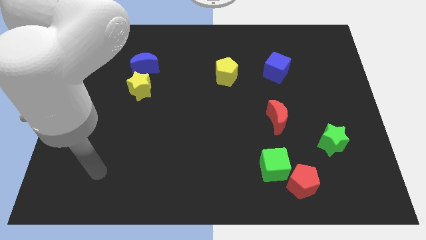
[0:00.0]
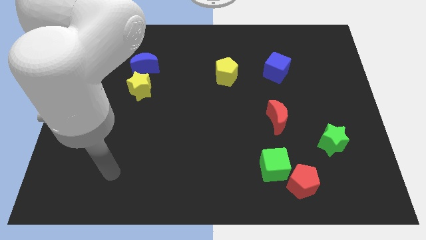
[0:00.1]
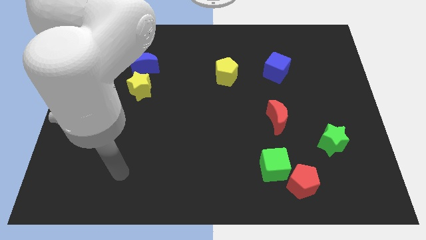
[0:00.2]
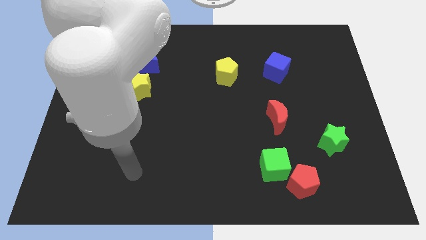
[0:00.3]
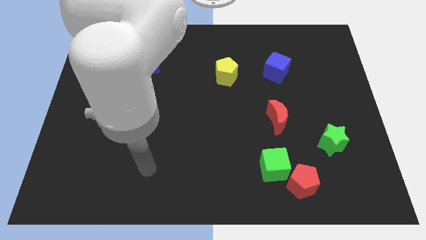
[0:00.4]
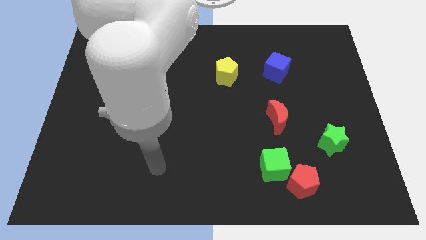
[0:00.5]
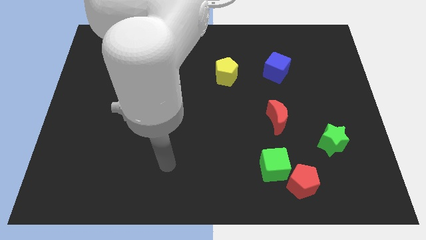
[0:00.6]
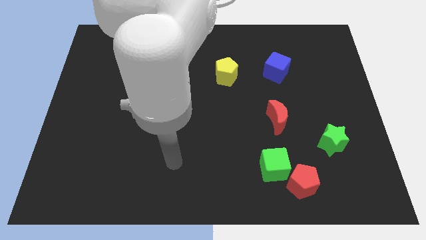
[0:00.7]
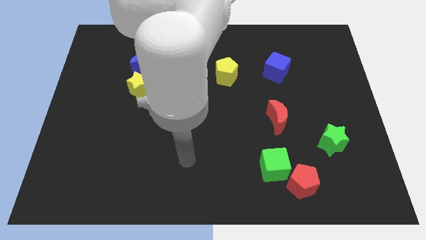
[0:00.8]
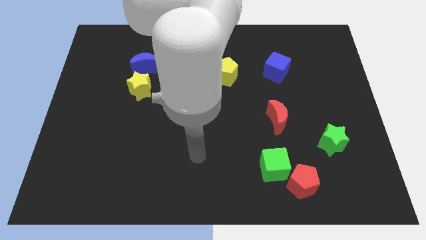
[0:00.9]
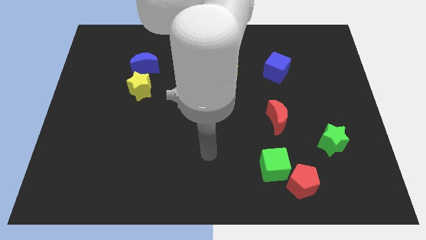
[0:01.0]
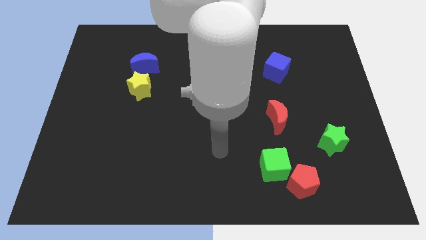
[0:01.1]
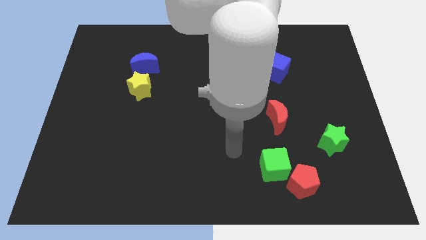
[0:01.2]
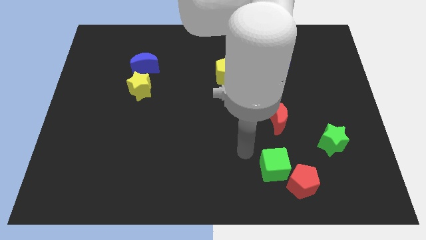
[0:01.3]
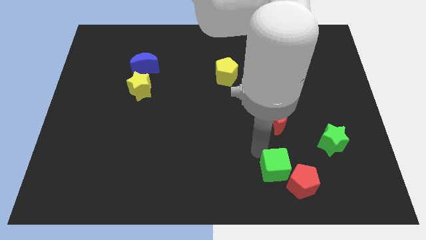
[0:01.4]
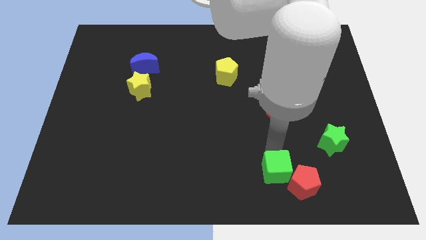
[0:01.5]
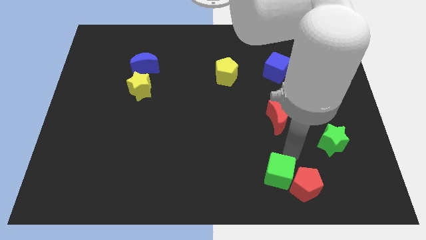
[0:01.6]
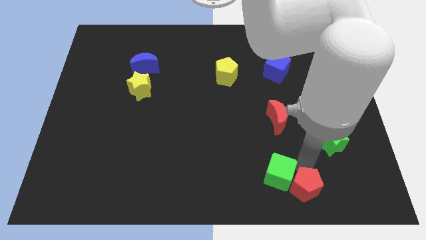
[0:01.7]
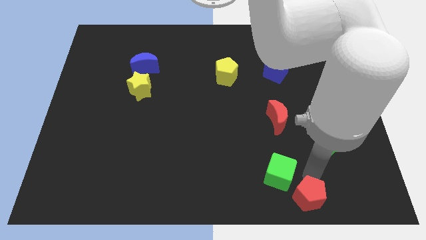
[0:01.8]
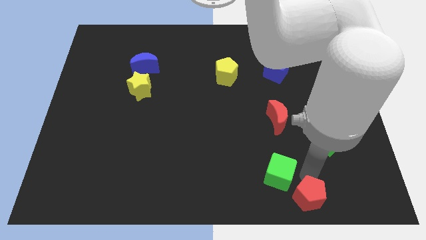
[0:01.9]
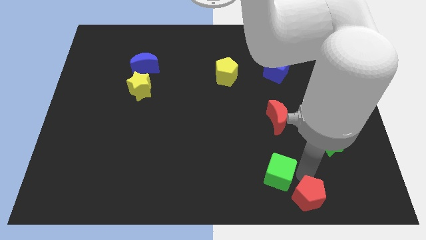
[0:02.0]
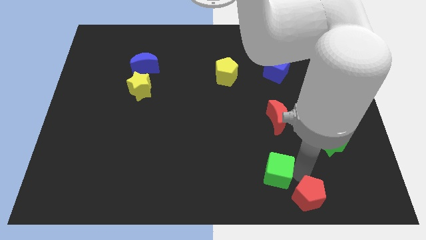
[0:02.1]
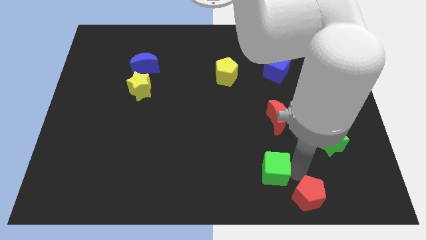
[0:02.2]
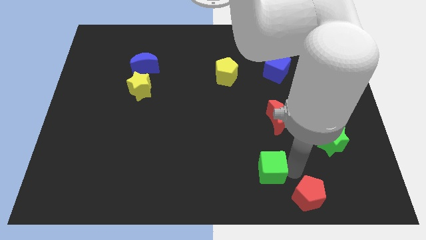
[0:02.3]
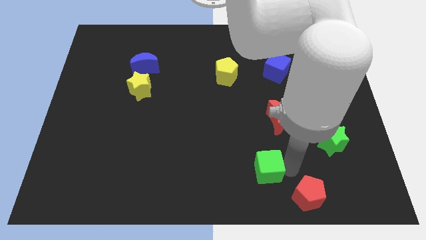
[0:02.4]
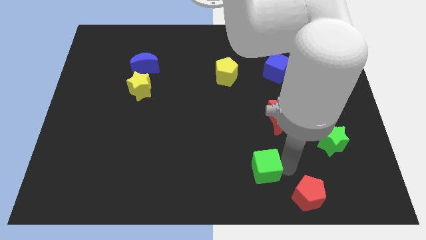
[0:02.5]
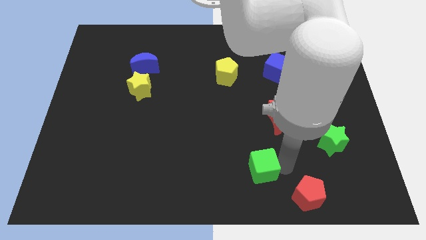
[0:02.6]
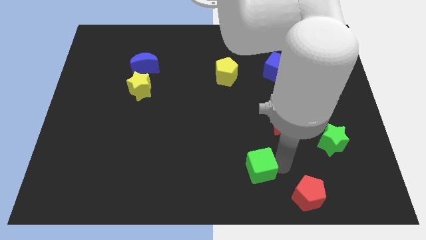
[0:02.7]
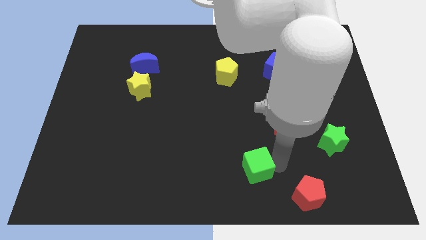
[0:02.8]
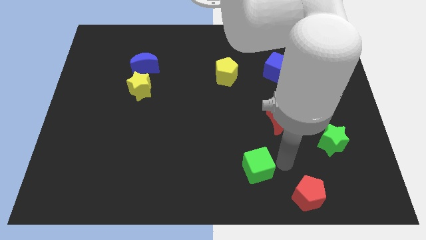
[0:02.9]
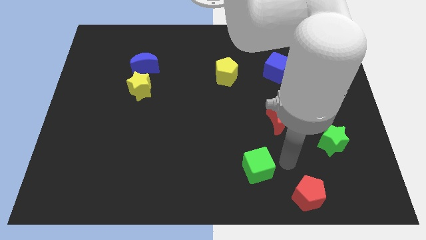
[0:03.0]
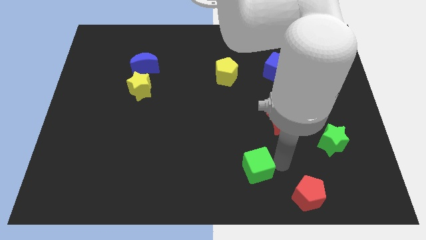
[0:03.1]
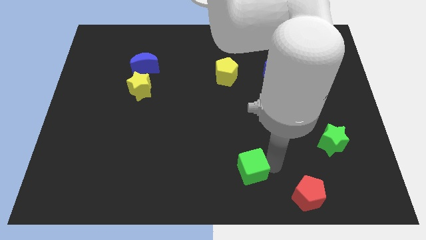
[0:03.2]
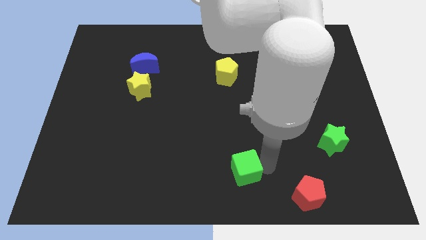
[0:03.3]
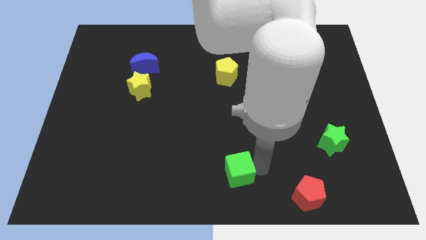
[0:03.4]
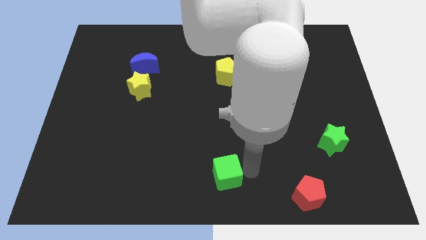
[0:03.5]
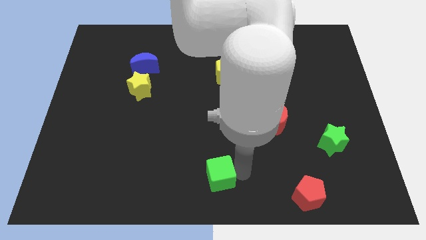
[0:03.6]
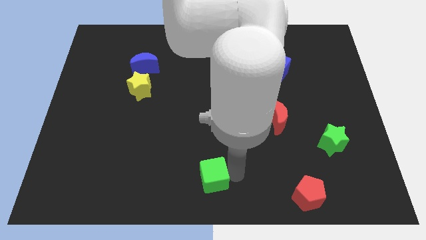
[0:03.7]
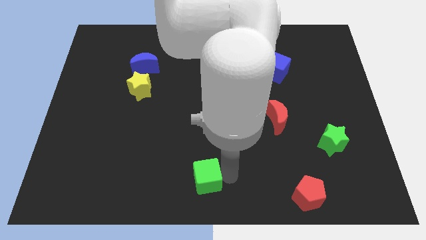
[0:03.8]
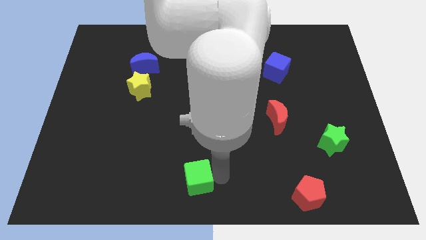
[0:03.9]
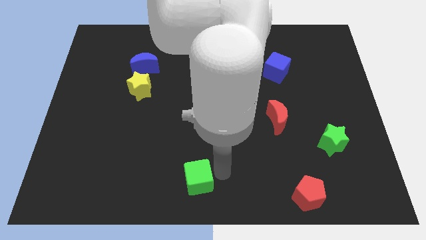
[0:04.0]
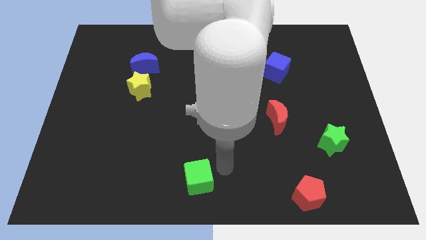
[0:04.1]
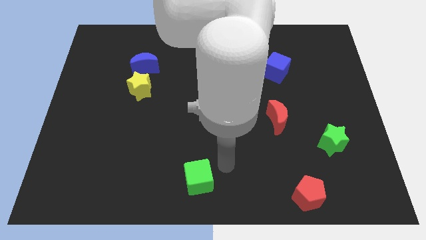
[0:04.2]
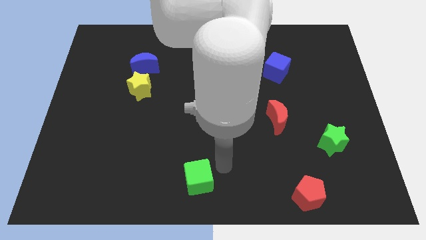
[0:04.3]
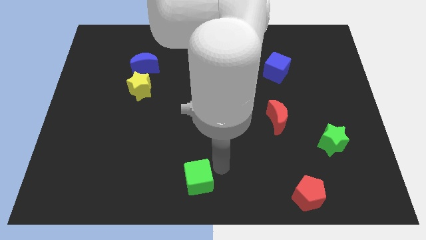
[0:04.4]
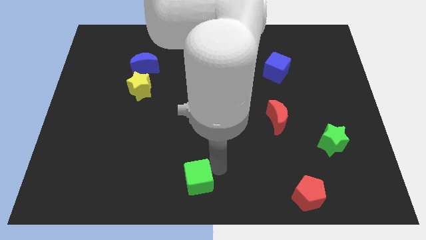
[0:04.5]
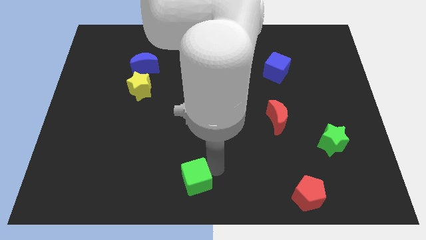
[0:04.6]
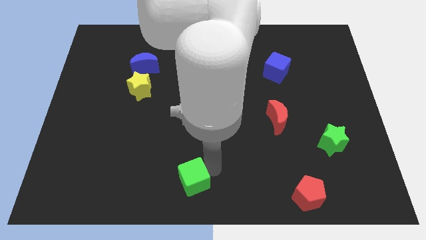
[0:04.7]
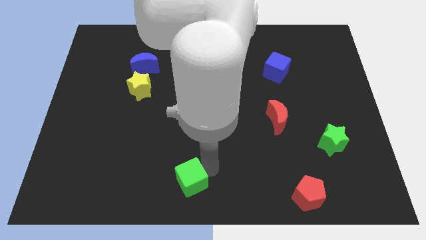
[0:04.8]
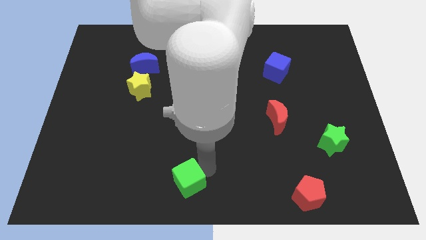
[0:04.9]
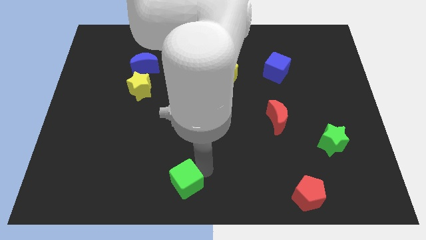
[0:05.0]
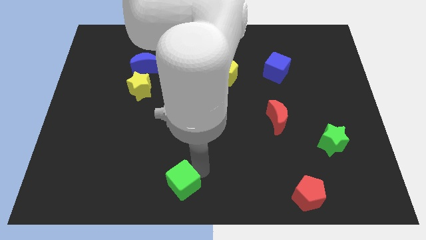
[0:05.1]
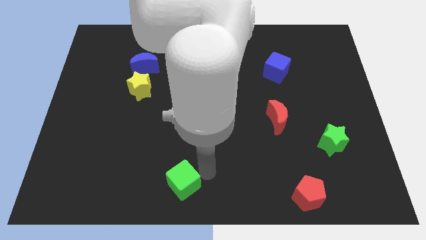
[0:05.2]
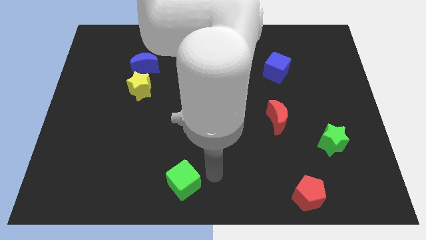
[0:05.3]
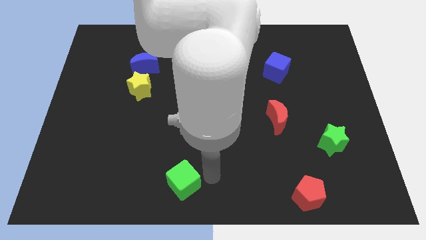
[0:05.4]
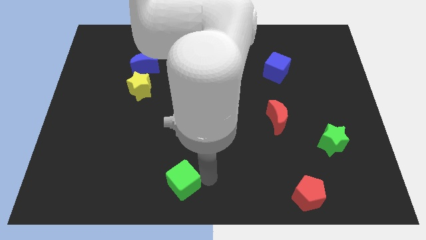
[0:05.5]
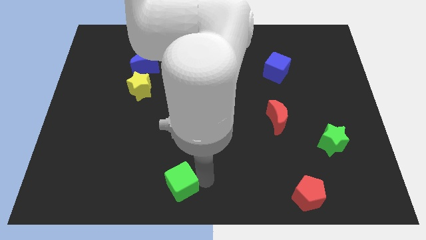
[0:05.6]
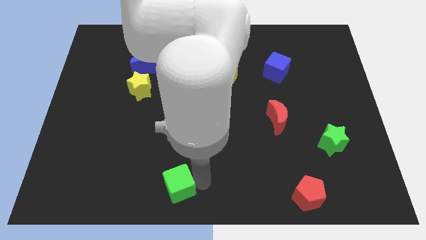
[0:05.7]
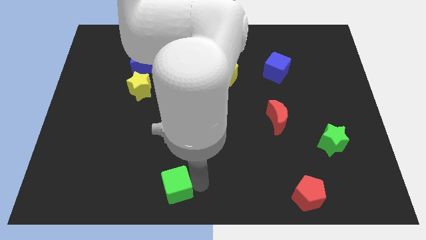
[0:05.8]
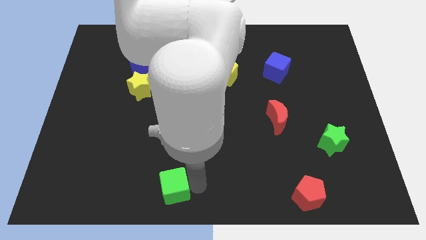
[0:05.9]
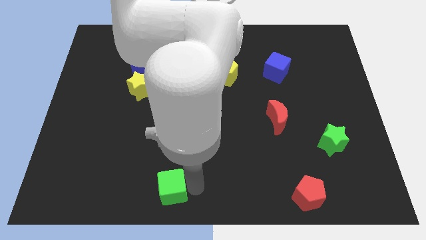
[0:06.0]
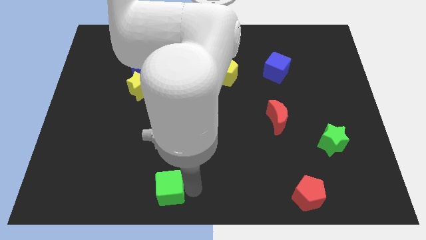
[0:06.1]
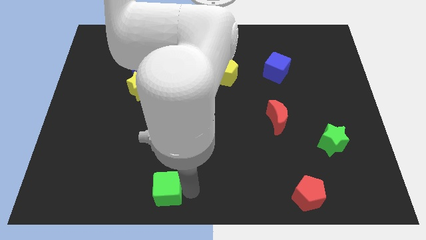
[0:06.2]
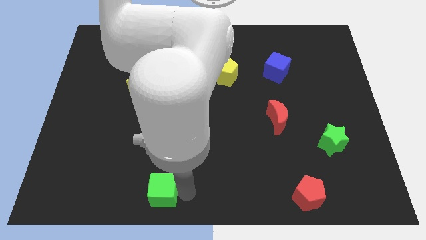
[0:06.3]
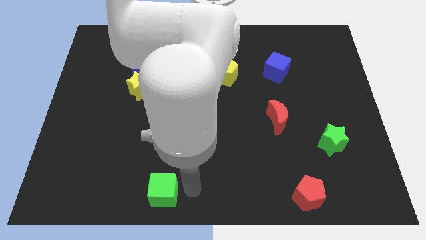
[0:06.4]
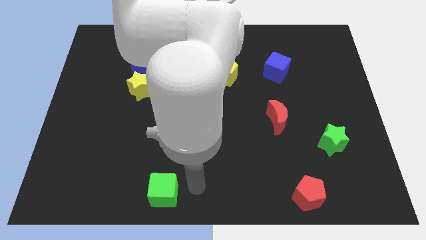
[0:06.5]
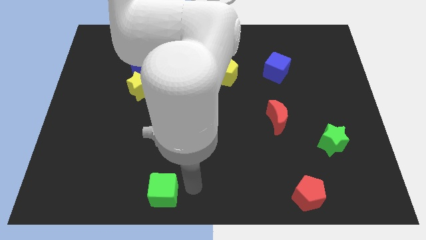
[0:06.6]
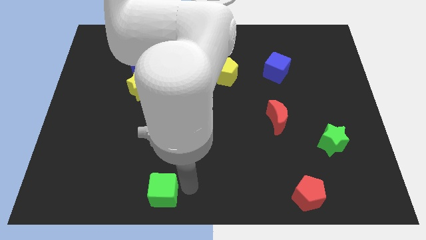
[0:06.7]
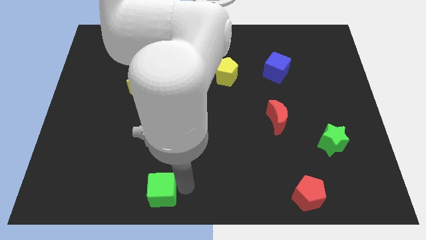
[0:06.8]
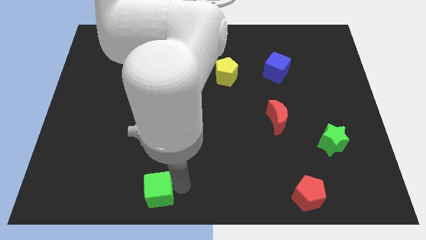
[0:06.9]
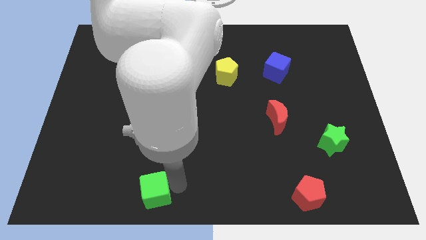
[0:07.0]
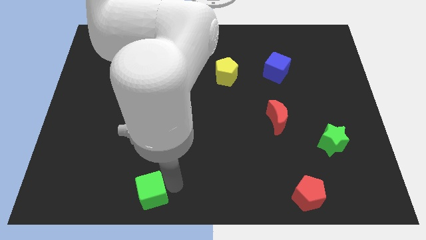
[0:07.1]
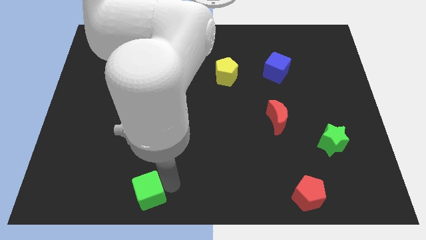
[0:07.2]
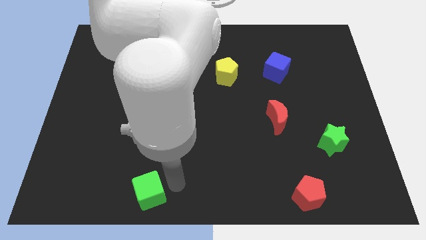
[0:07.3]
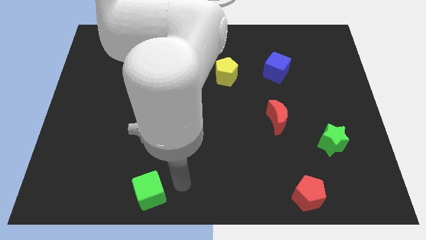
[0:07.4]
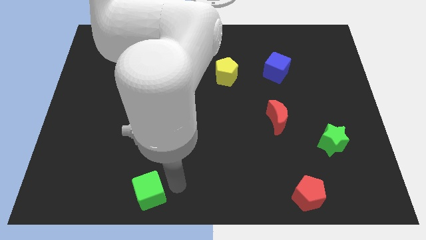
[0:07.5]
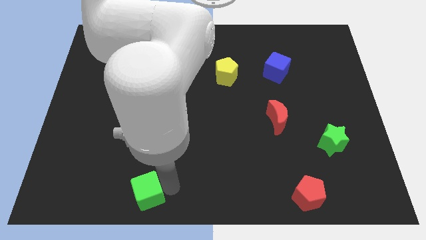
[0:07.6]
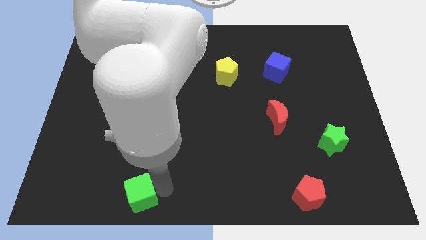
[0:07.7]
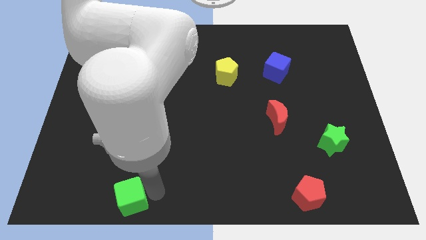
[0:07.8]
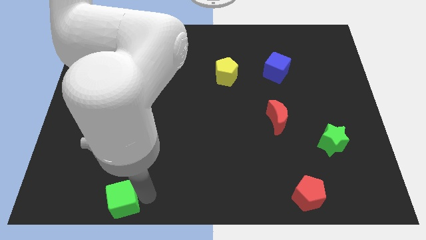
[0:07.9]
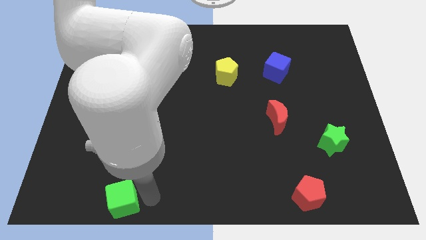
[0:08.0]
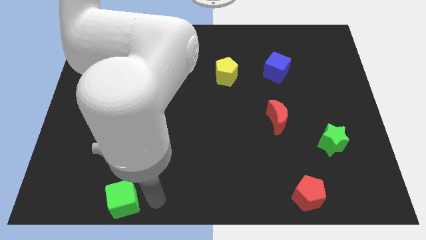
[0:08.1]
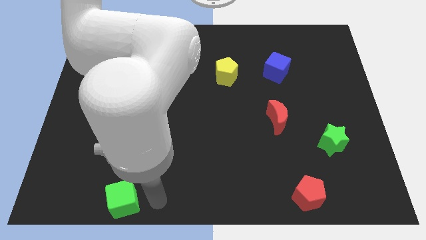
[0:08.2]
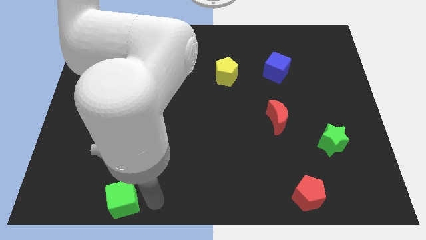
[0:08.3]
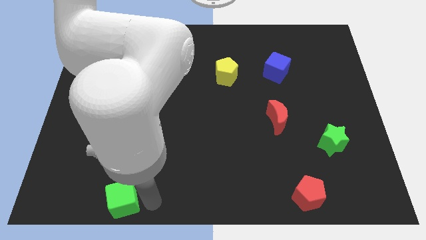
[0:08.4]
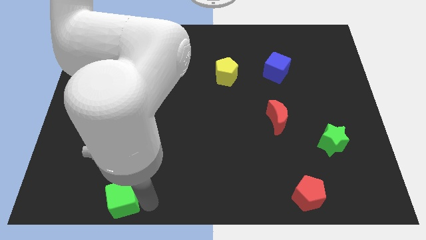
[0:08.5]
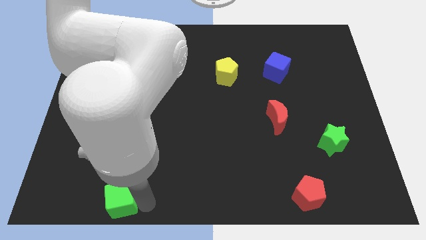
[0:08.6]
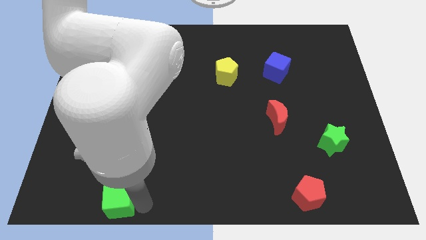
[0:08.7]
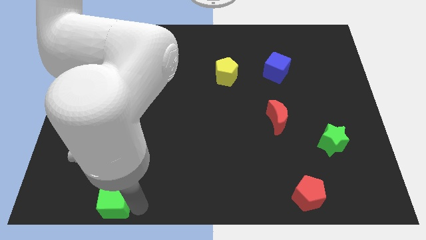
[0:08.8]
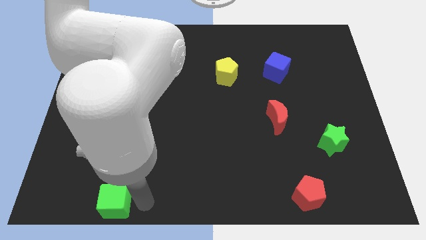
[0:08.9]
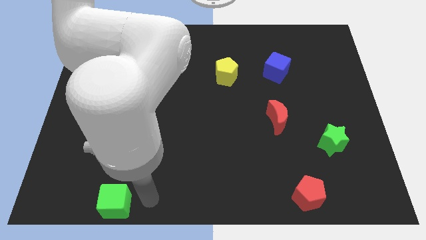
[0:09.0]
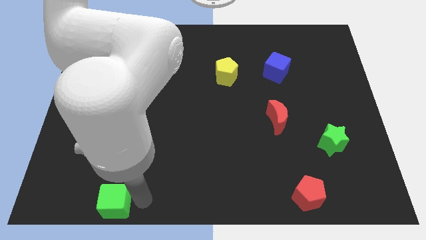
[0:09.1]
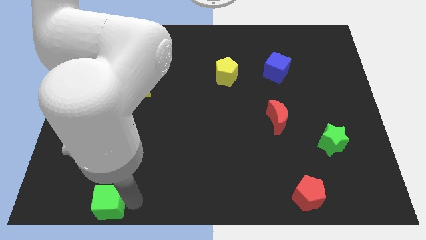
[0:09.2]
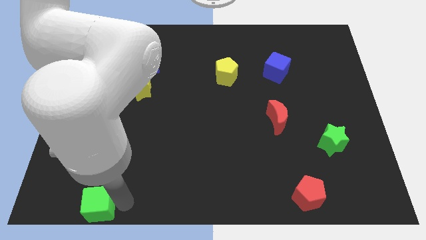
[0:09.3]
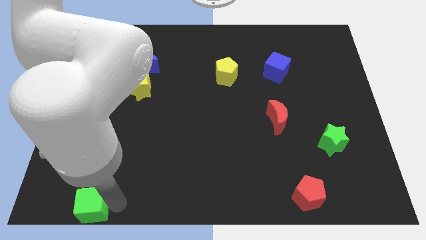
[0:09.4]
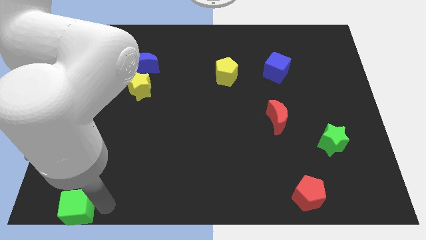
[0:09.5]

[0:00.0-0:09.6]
put the green cube to the bottom left
